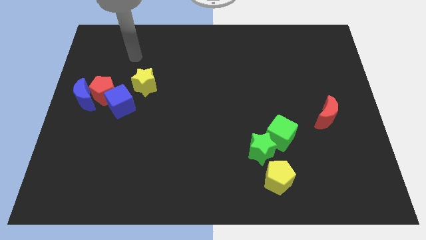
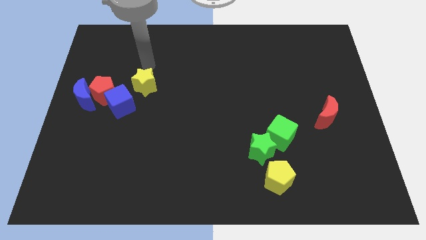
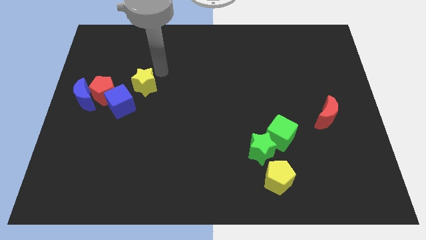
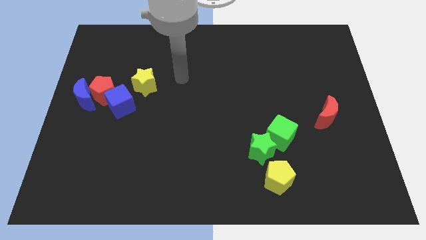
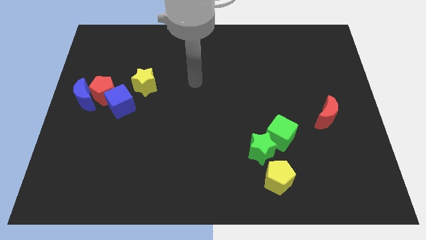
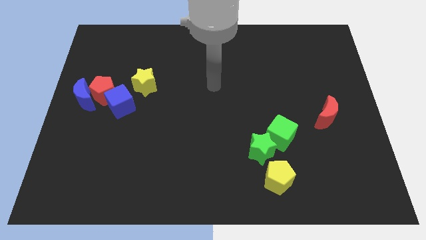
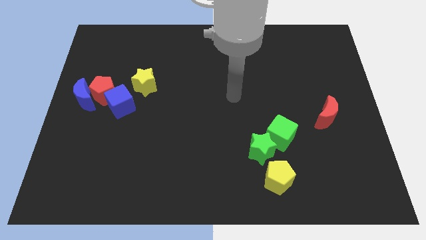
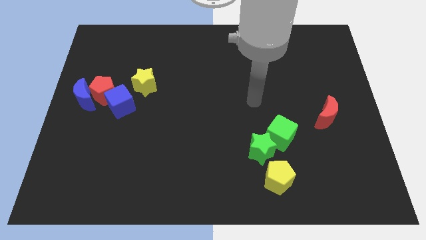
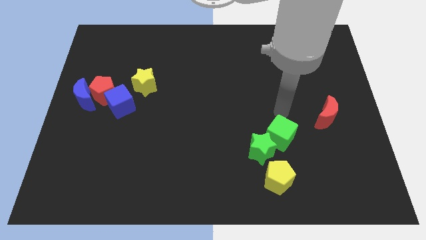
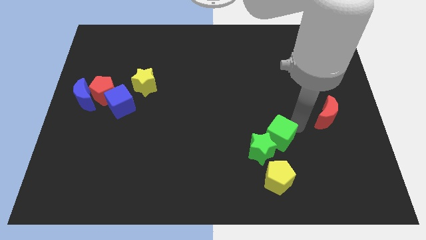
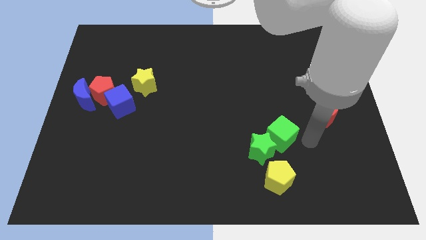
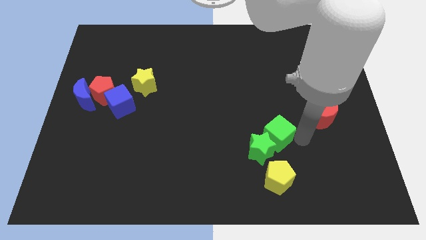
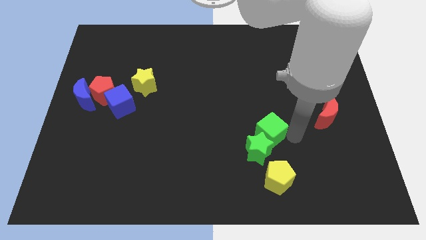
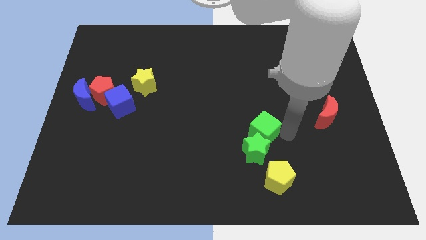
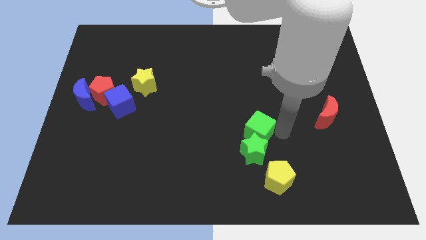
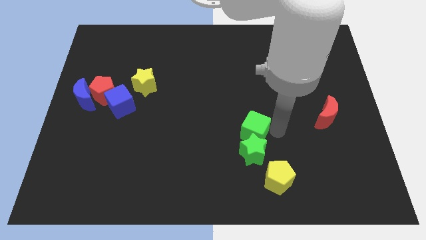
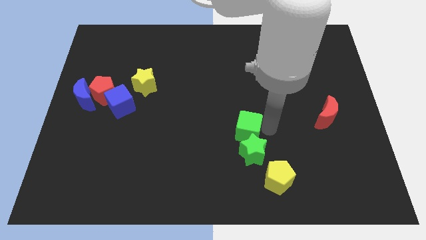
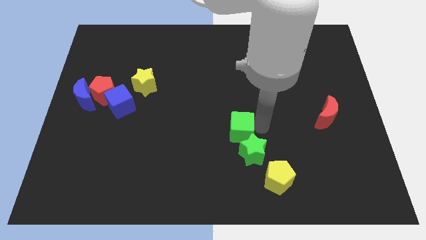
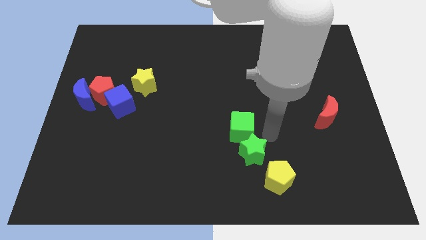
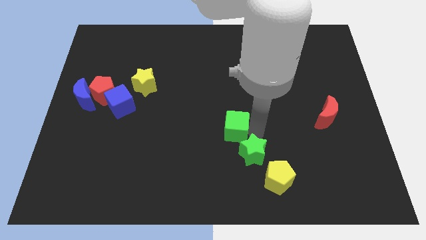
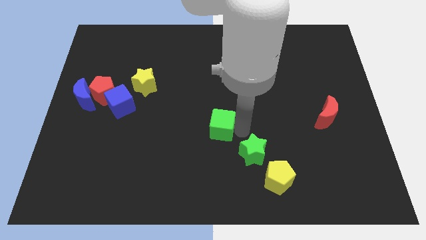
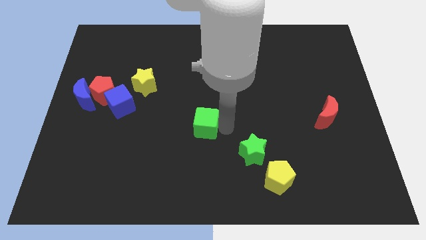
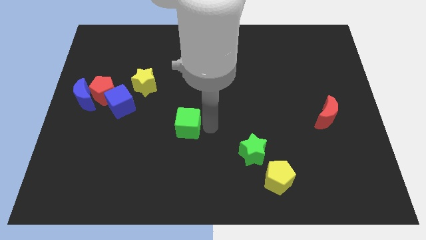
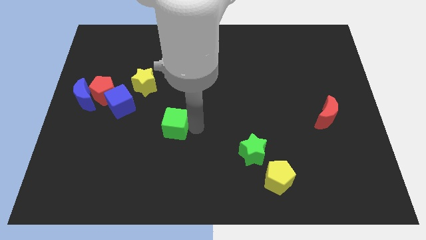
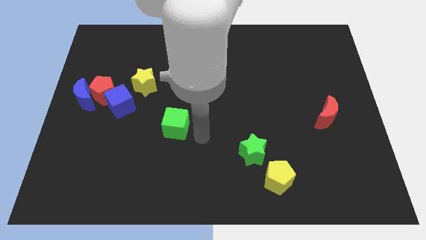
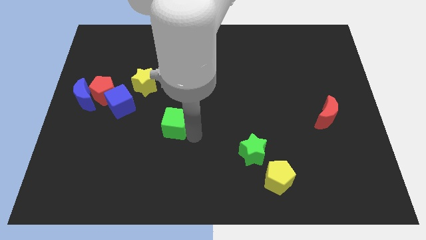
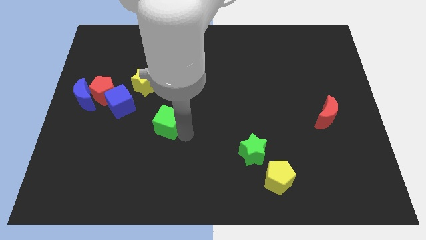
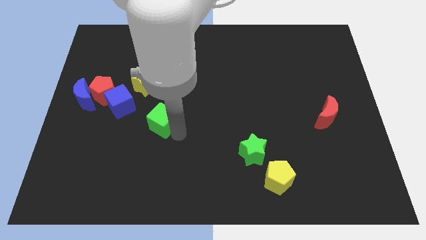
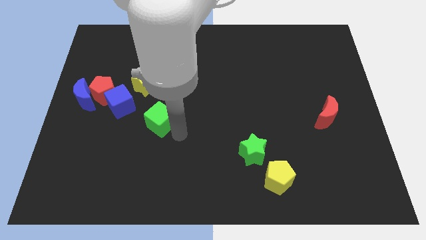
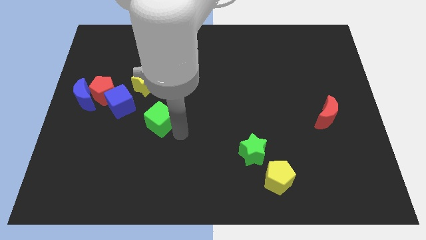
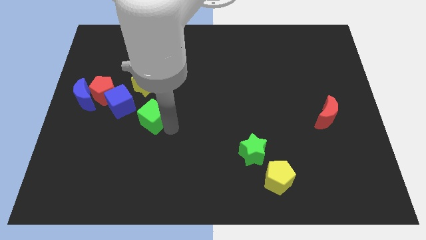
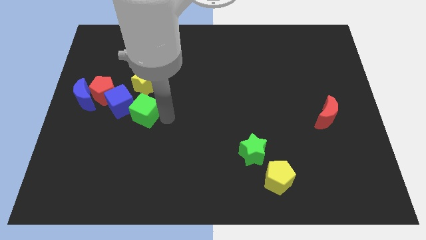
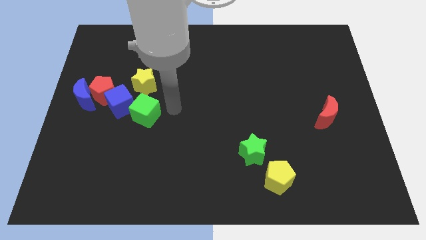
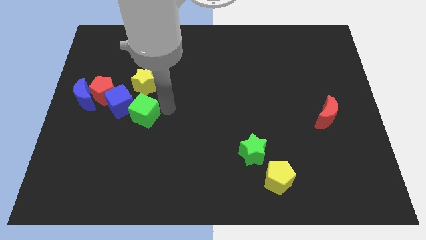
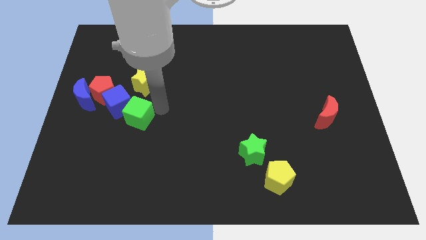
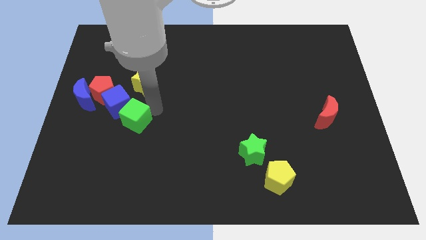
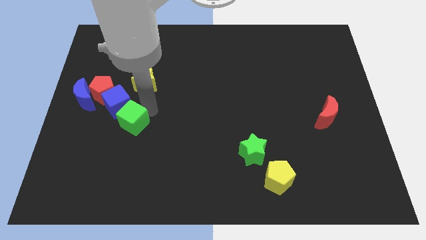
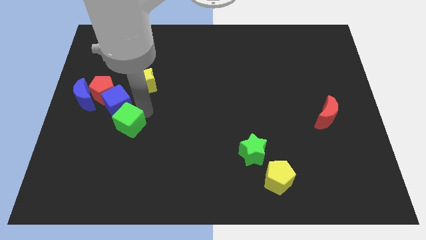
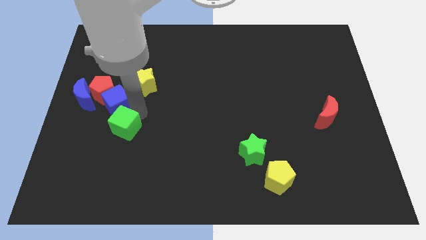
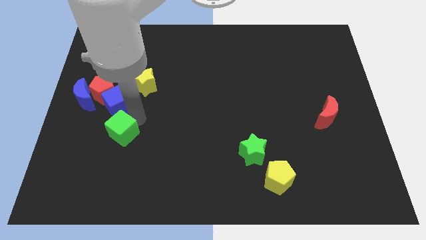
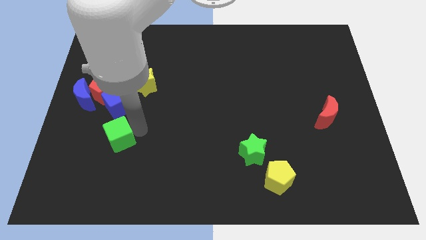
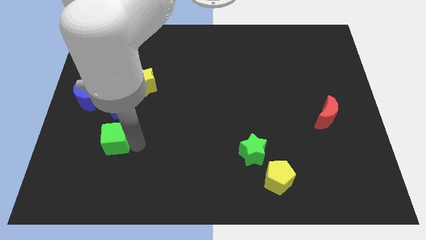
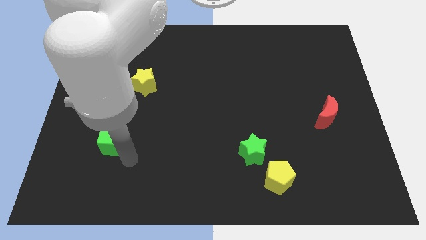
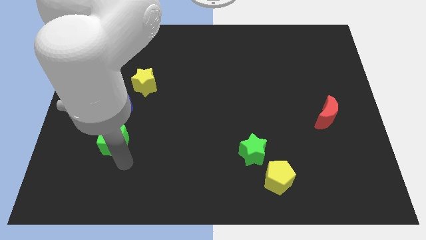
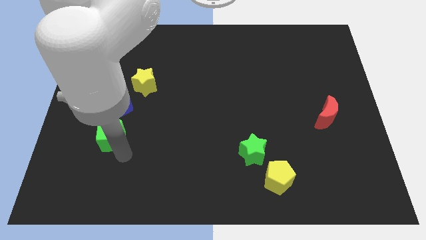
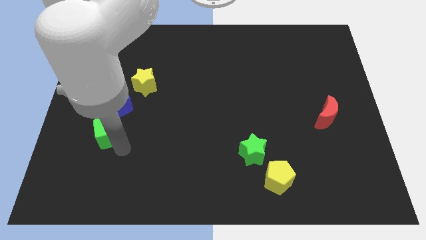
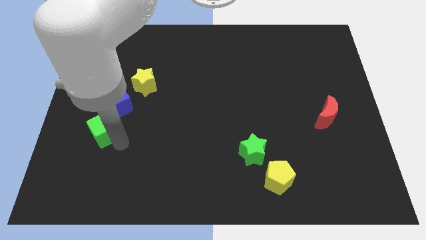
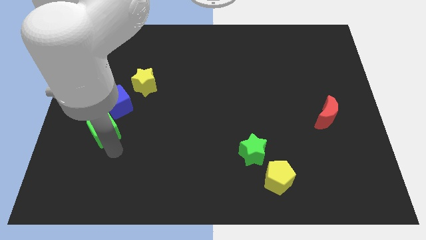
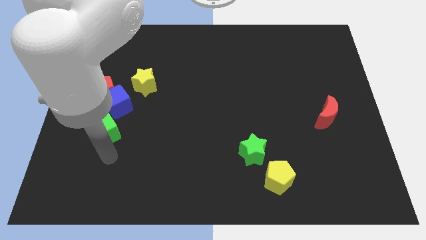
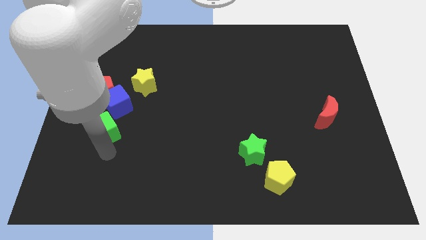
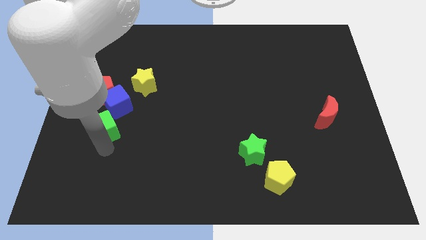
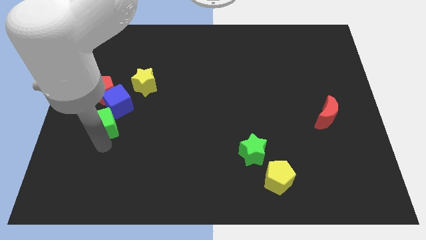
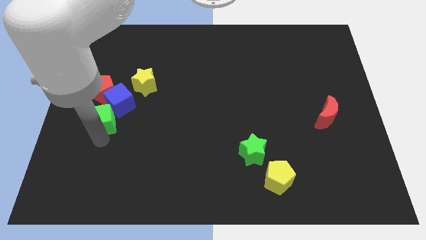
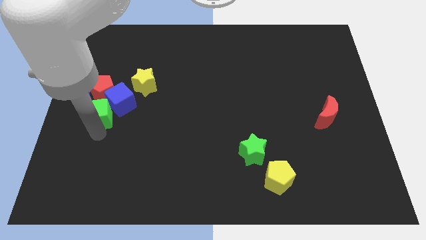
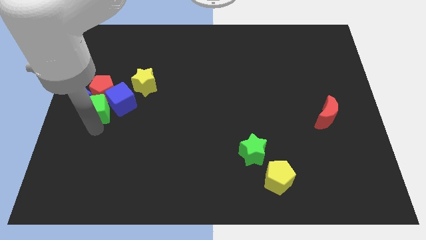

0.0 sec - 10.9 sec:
put the green cube to the red pentagon

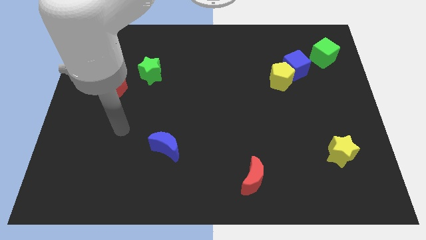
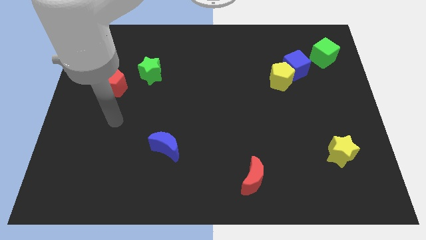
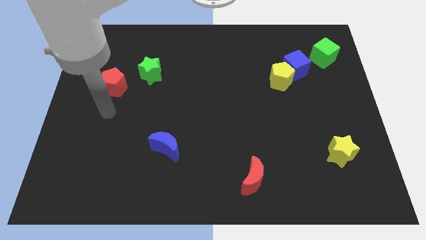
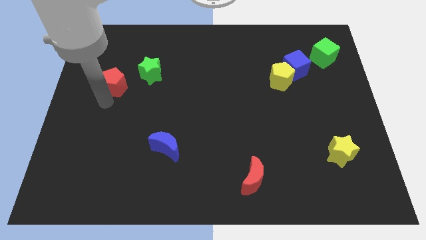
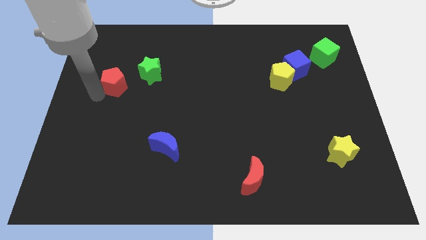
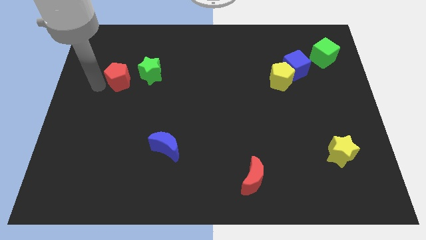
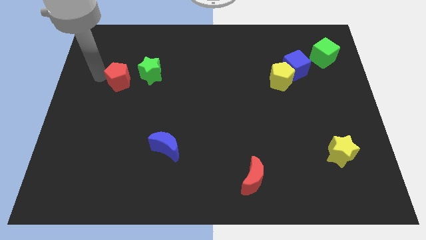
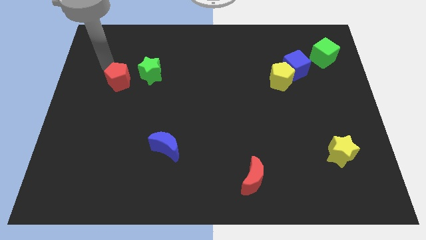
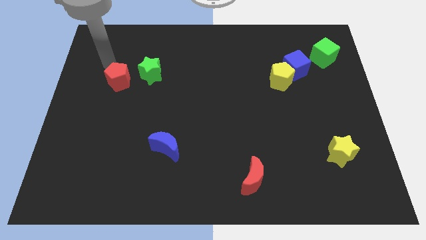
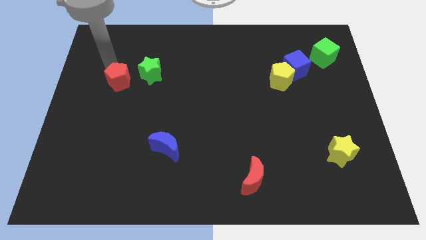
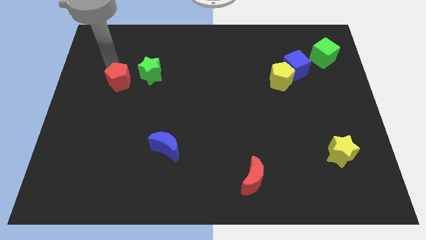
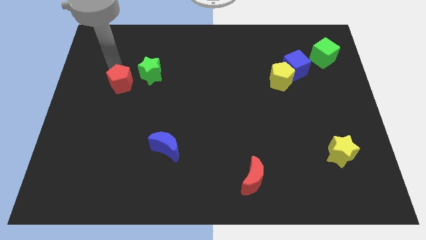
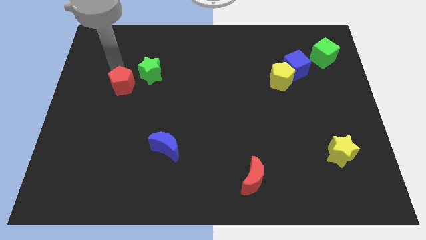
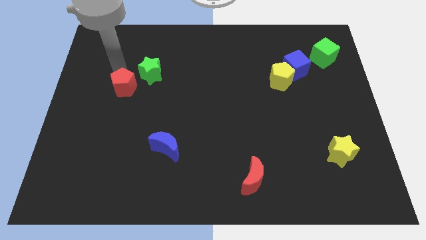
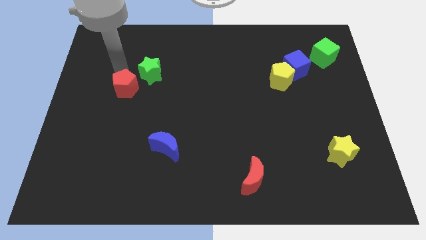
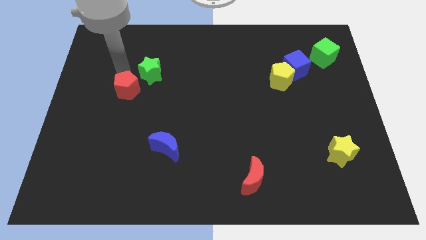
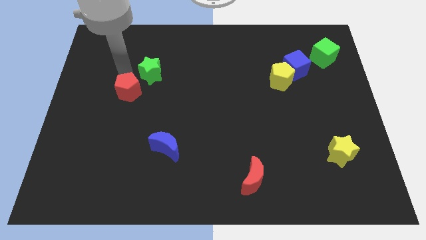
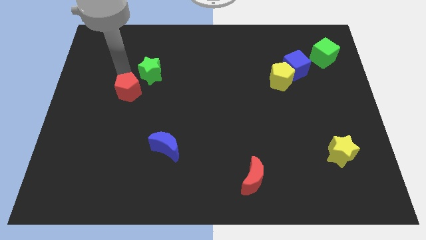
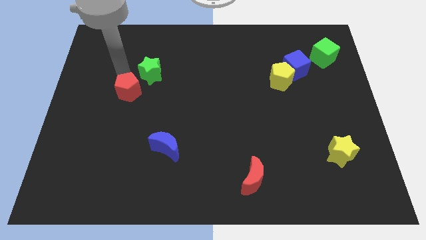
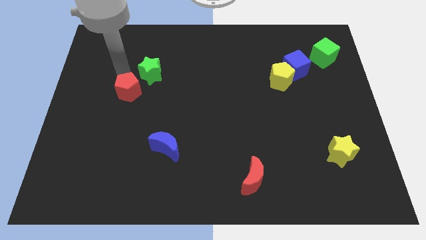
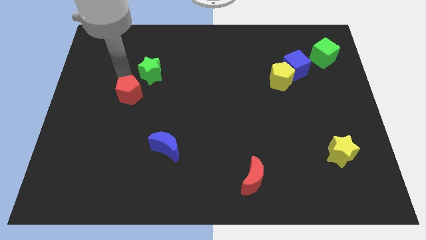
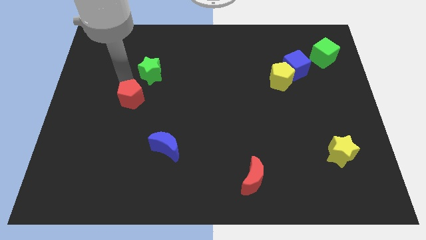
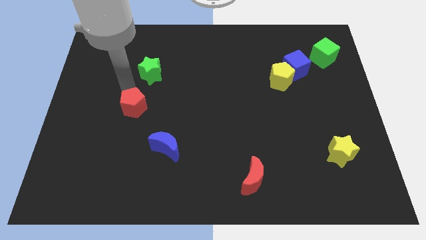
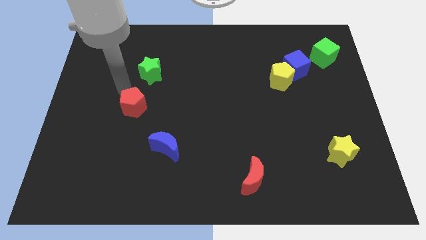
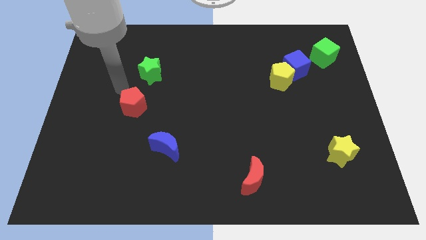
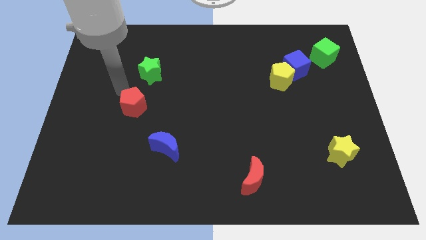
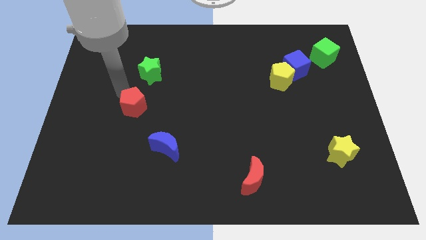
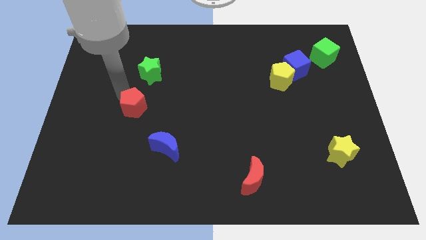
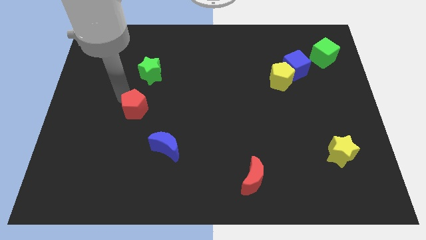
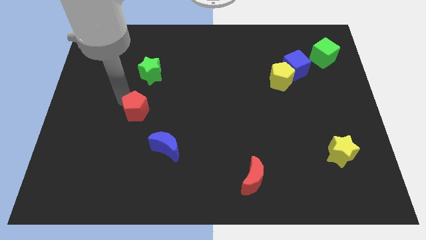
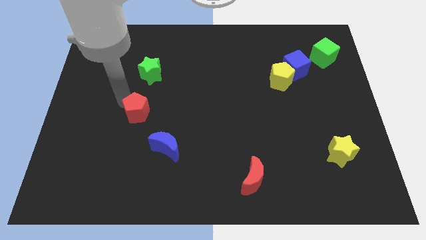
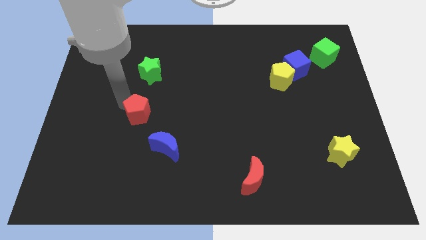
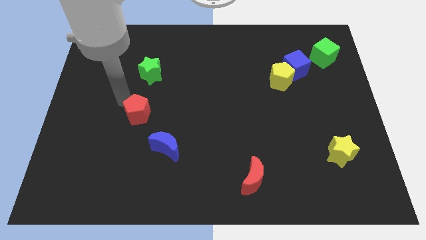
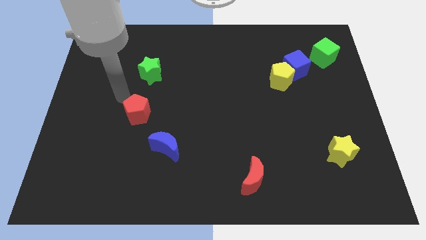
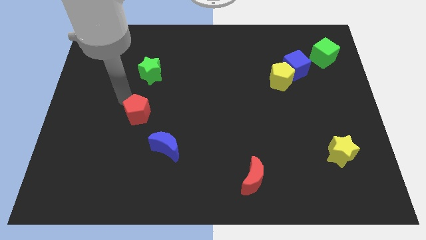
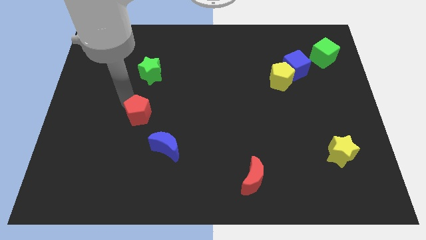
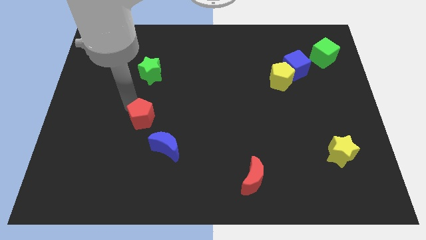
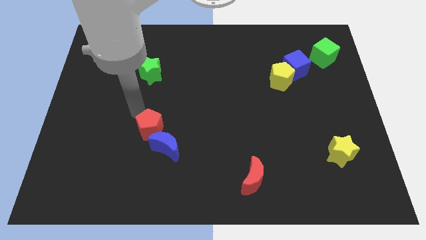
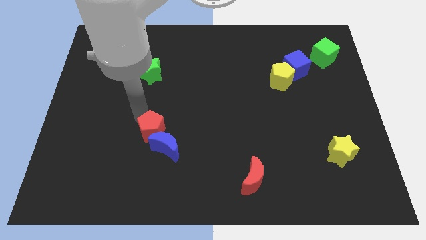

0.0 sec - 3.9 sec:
put the red pentagon to the blue moon
